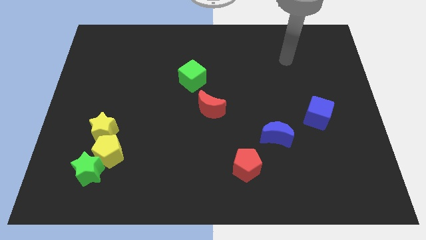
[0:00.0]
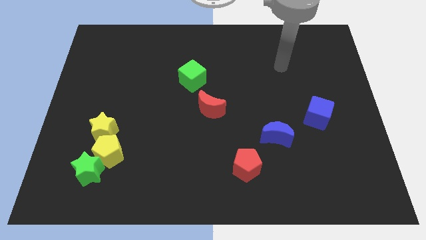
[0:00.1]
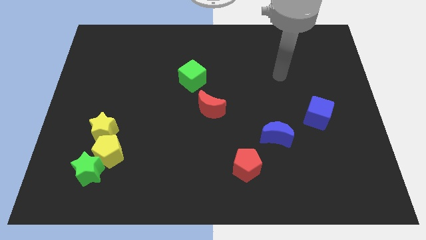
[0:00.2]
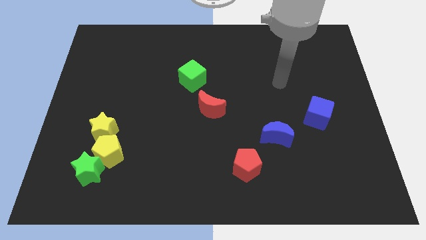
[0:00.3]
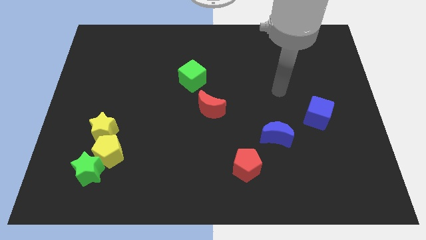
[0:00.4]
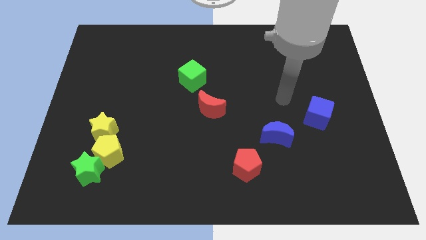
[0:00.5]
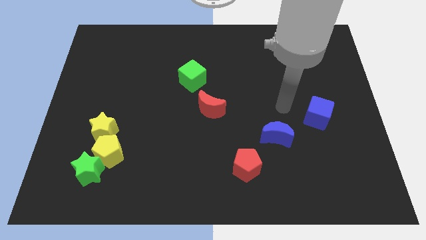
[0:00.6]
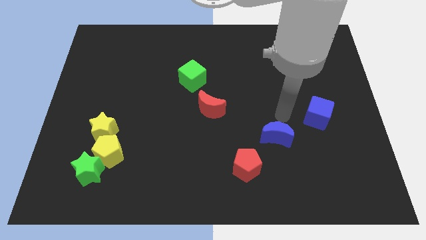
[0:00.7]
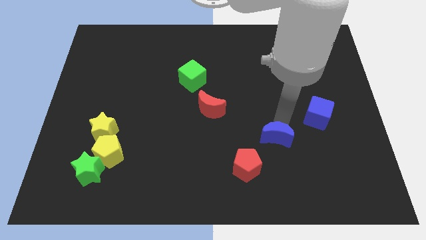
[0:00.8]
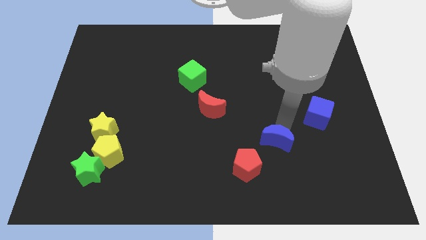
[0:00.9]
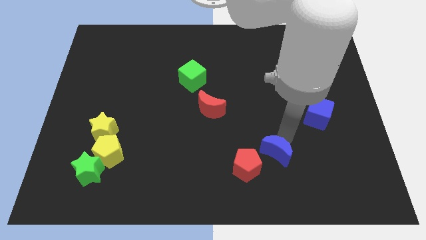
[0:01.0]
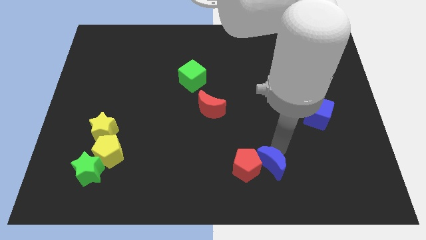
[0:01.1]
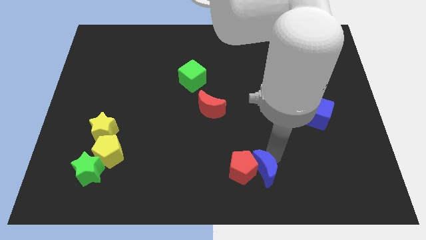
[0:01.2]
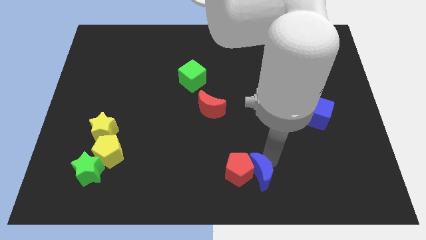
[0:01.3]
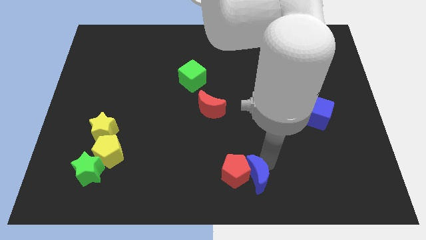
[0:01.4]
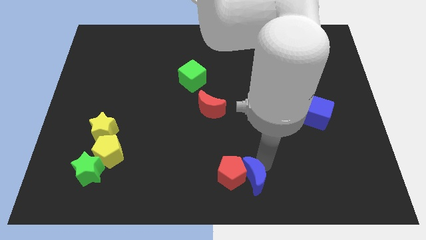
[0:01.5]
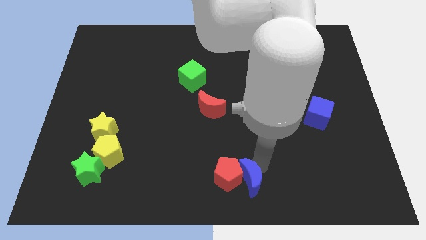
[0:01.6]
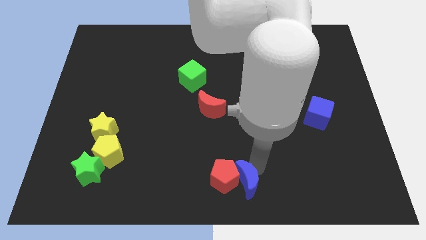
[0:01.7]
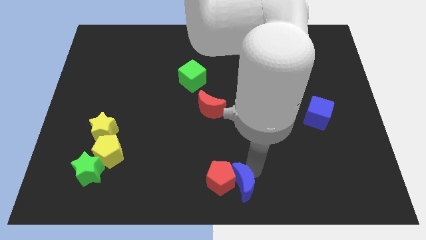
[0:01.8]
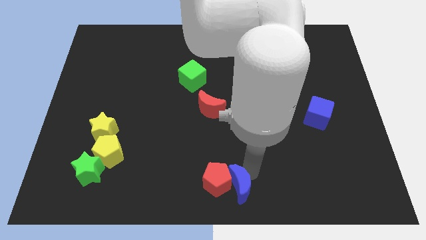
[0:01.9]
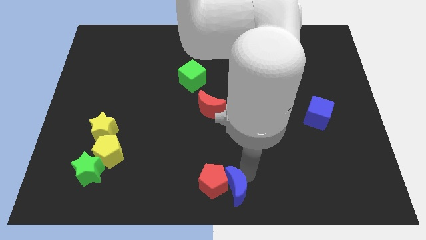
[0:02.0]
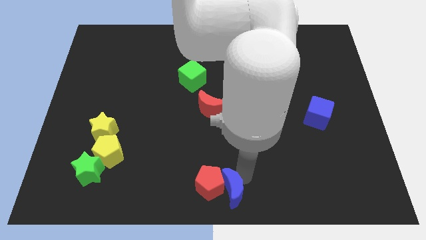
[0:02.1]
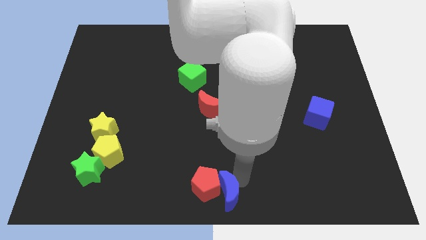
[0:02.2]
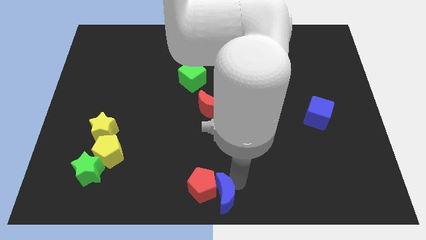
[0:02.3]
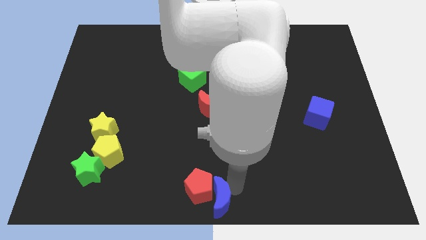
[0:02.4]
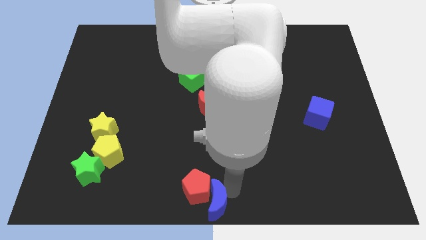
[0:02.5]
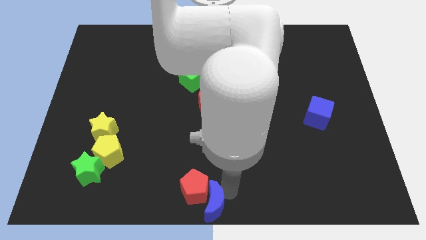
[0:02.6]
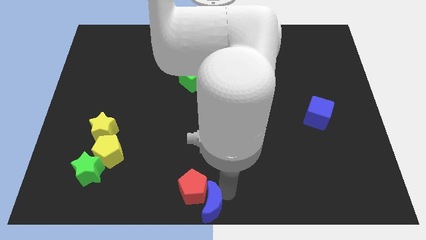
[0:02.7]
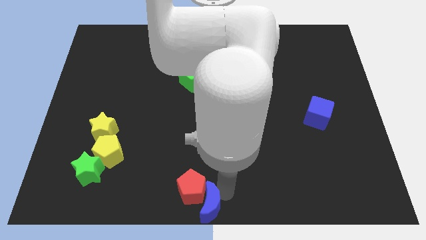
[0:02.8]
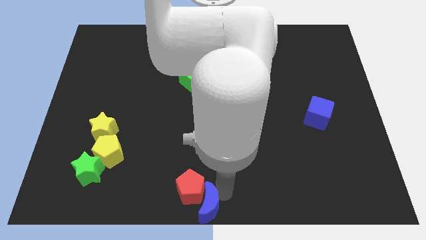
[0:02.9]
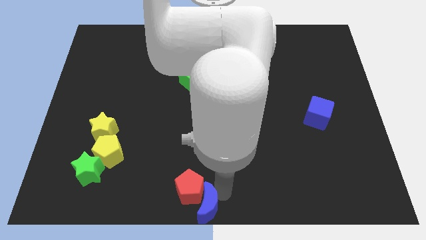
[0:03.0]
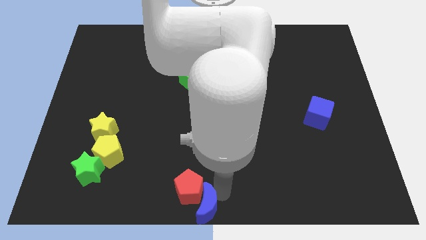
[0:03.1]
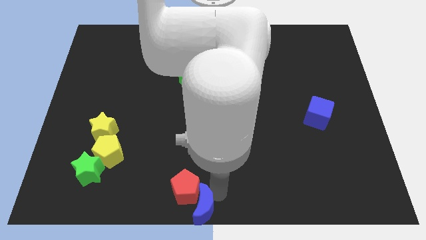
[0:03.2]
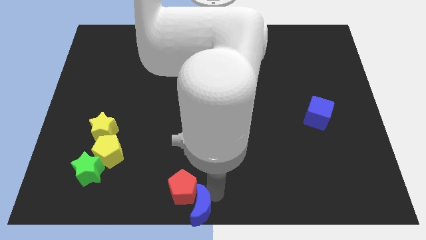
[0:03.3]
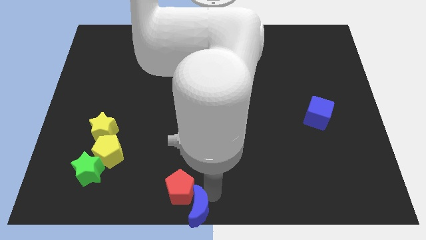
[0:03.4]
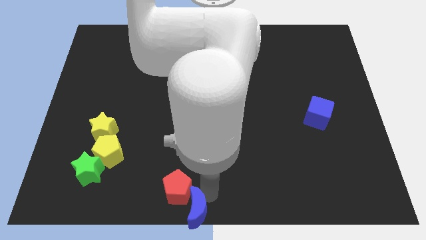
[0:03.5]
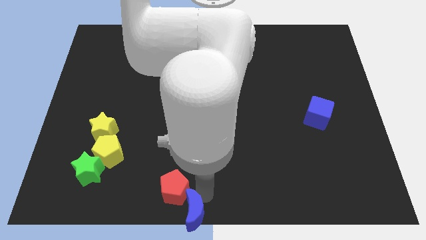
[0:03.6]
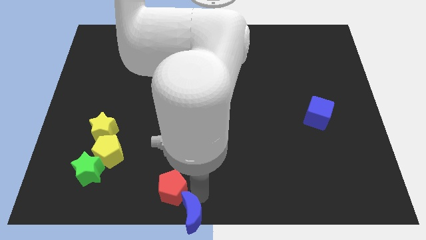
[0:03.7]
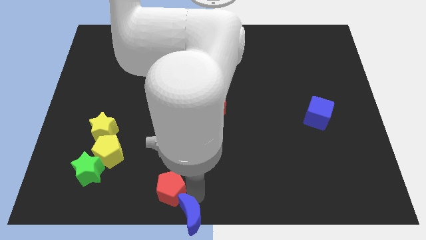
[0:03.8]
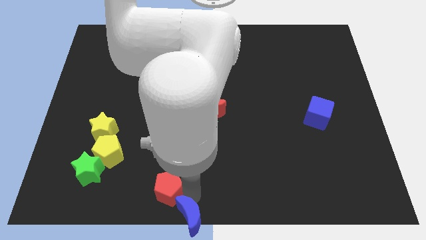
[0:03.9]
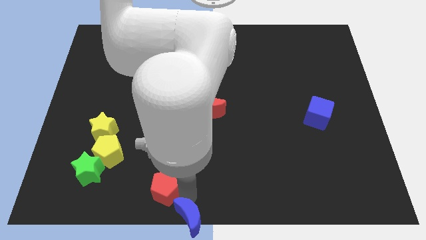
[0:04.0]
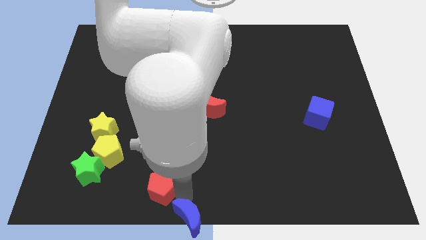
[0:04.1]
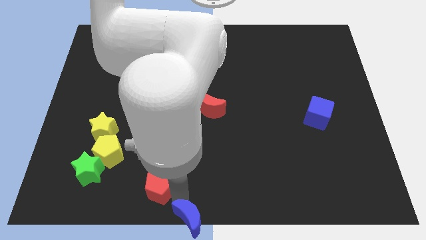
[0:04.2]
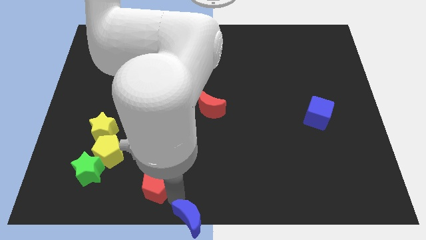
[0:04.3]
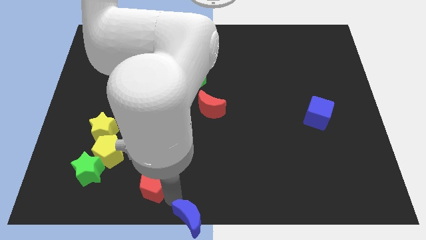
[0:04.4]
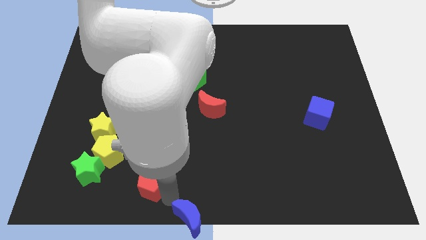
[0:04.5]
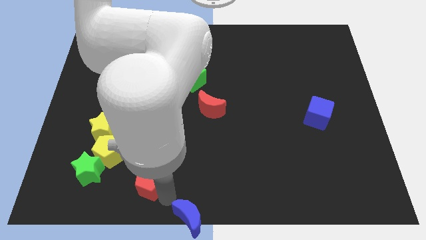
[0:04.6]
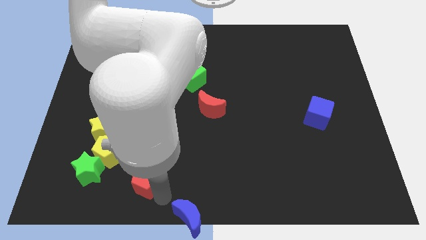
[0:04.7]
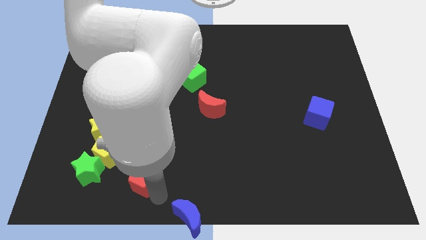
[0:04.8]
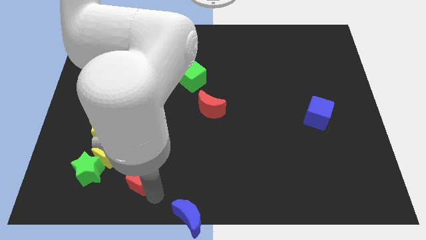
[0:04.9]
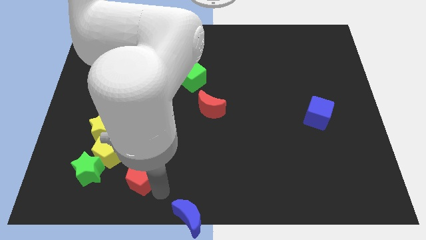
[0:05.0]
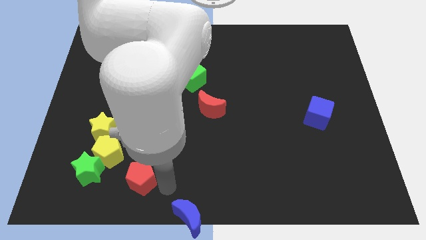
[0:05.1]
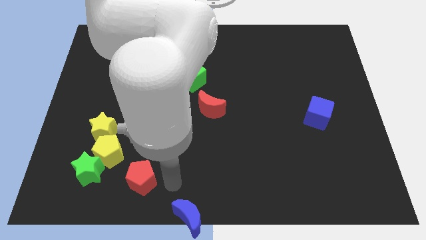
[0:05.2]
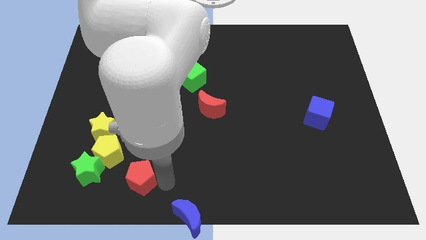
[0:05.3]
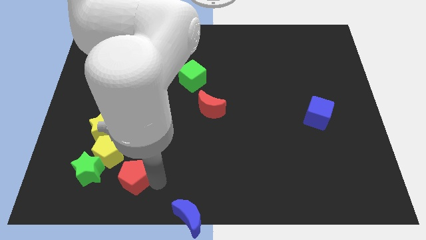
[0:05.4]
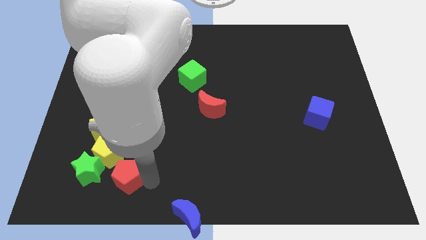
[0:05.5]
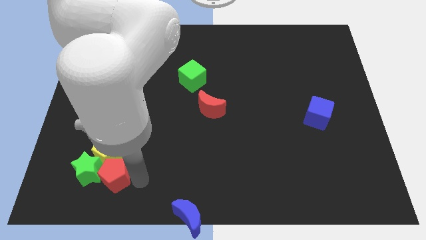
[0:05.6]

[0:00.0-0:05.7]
slide the red pentagon towards the green star

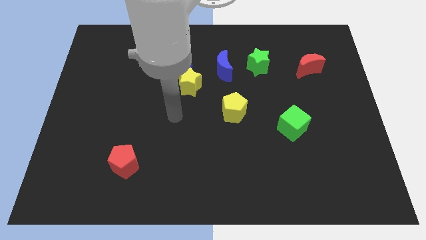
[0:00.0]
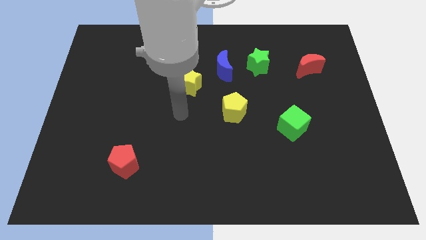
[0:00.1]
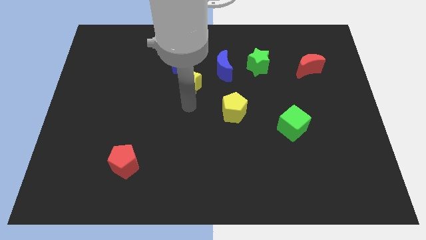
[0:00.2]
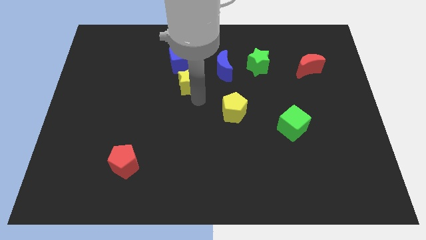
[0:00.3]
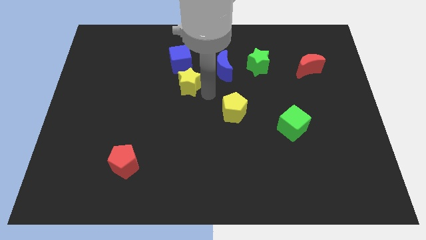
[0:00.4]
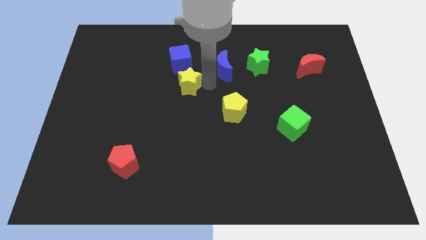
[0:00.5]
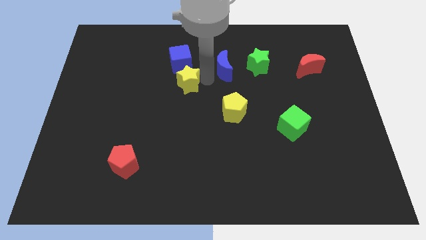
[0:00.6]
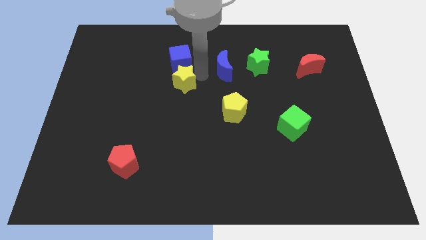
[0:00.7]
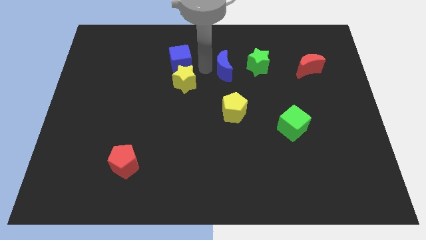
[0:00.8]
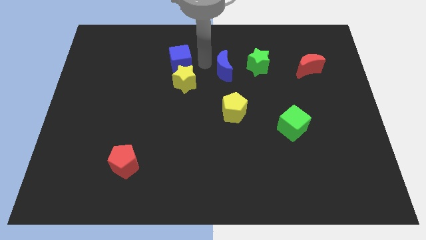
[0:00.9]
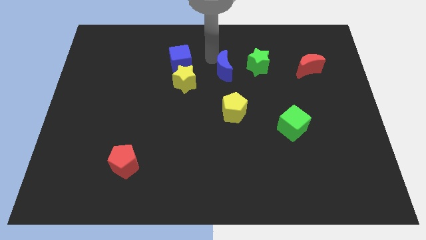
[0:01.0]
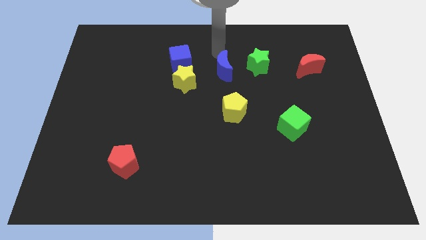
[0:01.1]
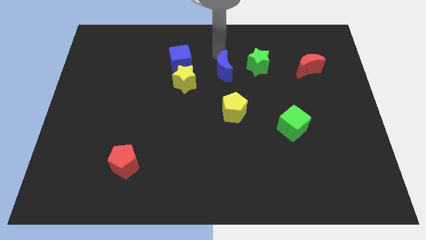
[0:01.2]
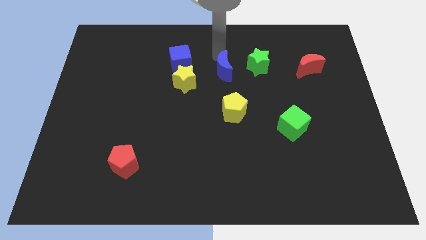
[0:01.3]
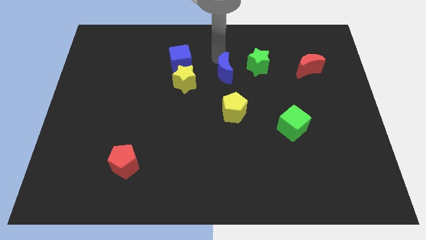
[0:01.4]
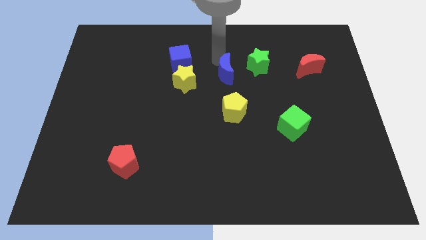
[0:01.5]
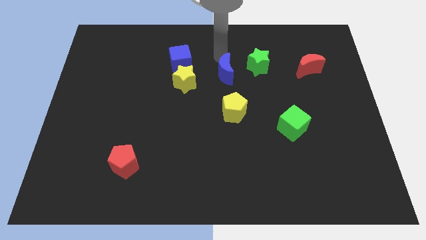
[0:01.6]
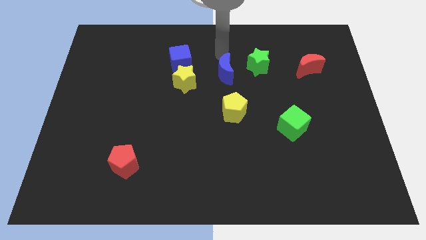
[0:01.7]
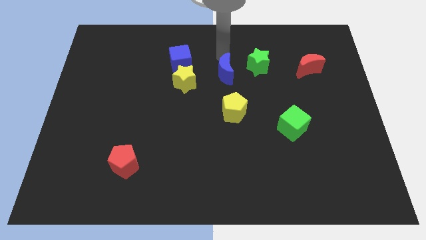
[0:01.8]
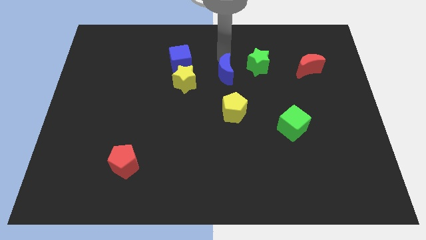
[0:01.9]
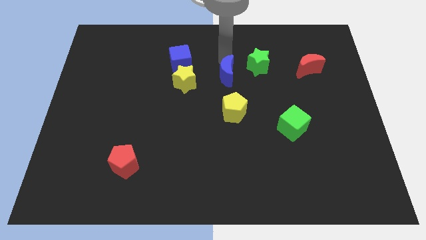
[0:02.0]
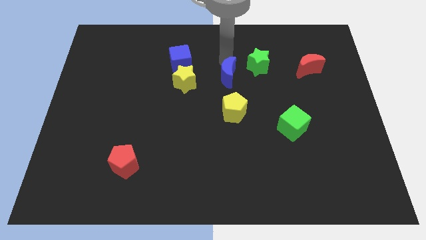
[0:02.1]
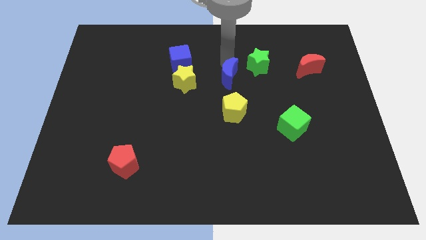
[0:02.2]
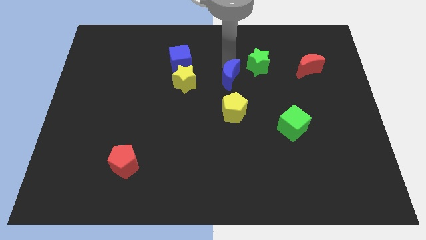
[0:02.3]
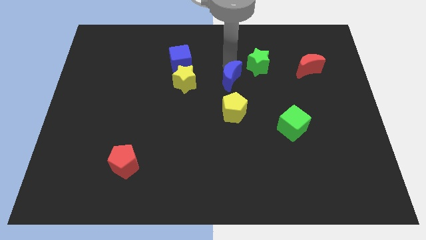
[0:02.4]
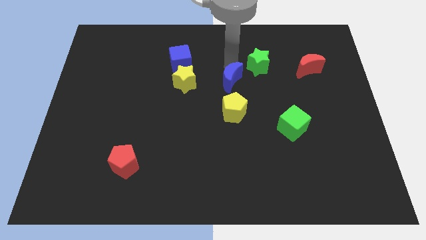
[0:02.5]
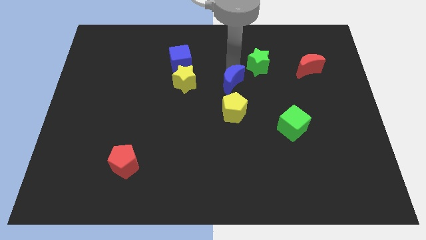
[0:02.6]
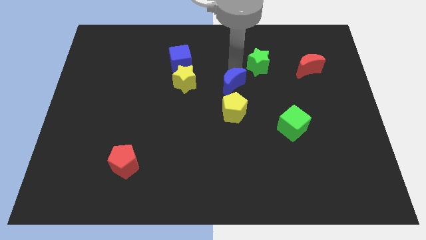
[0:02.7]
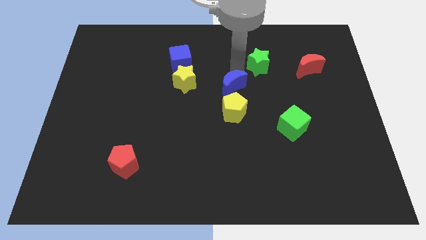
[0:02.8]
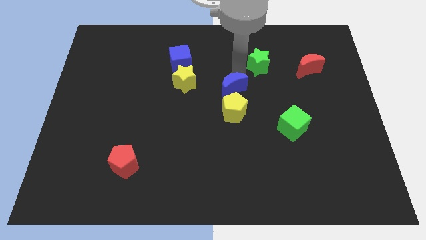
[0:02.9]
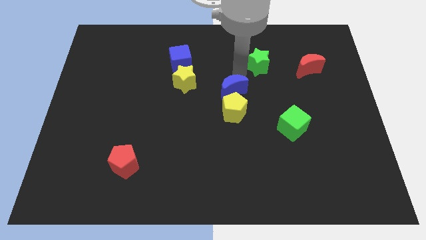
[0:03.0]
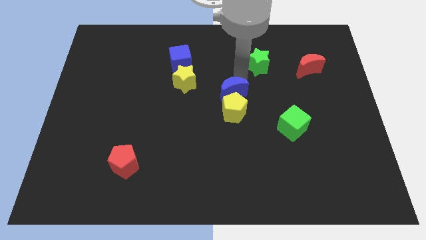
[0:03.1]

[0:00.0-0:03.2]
push the blue moon to the yellow pentagon
